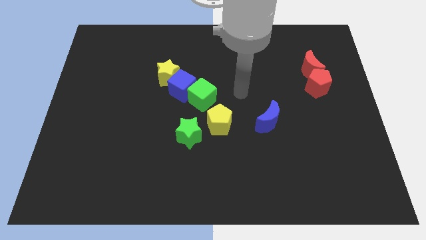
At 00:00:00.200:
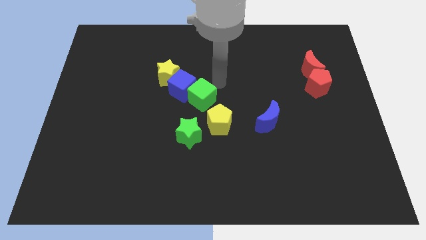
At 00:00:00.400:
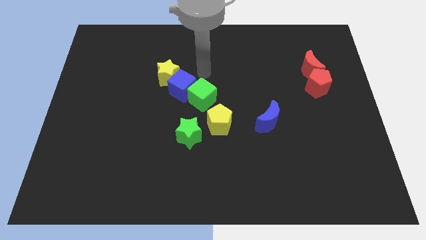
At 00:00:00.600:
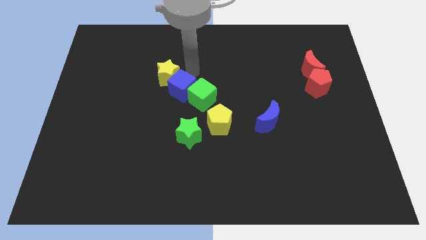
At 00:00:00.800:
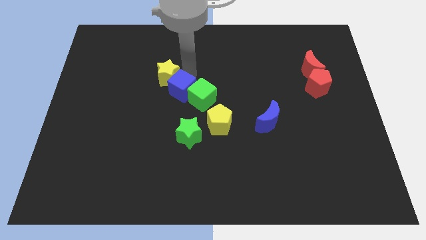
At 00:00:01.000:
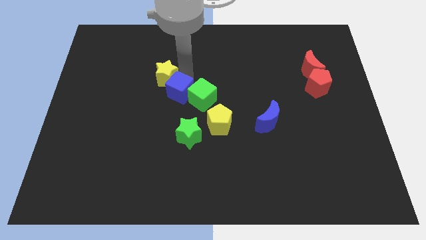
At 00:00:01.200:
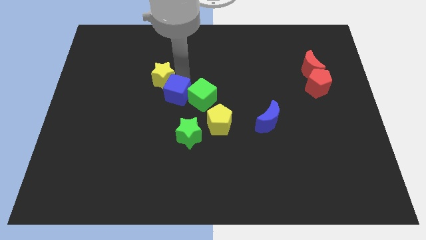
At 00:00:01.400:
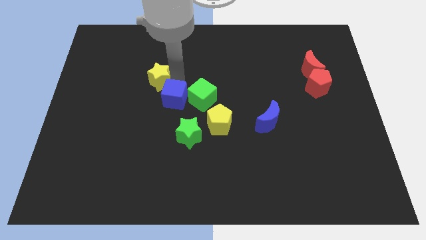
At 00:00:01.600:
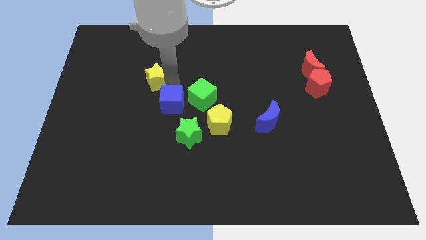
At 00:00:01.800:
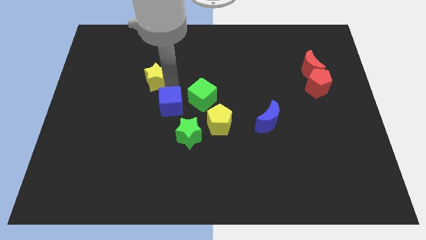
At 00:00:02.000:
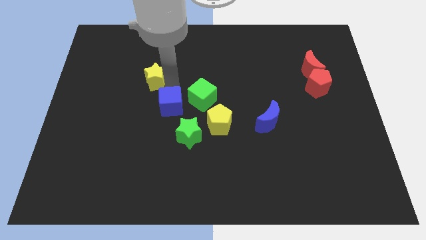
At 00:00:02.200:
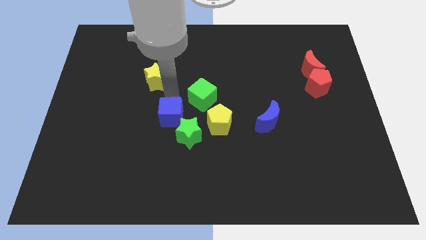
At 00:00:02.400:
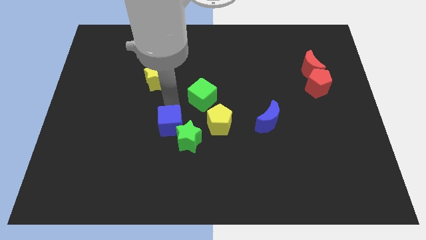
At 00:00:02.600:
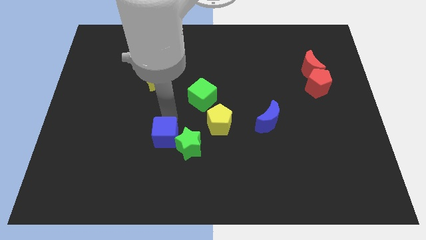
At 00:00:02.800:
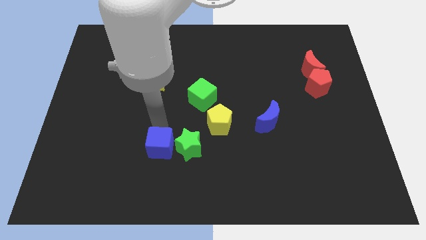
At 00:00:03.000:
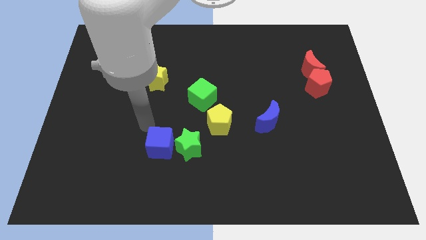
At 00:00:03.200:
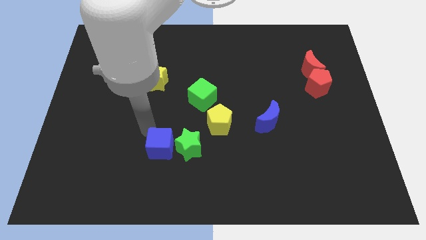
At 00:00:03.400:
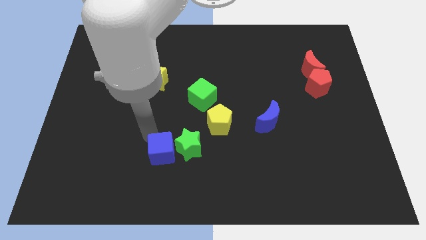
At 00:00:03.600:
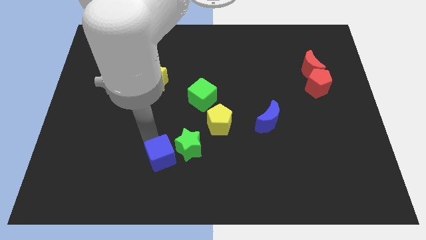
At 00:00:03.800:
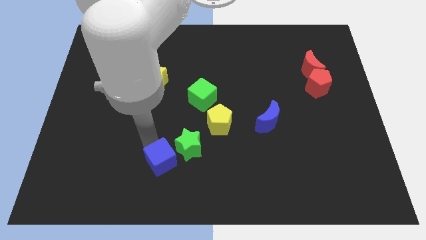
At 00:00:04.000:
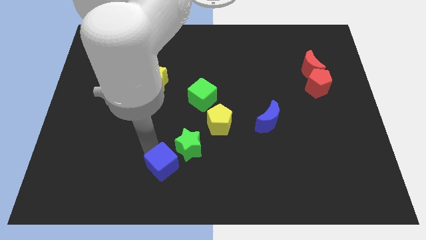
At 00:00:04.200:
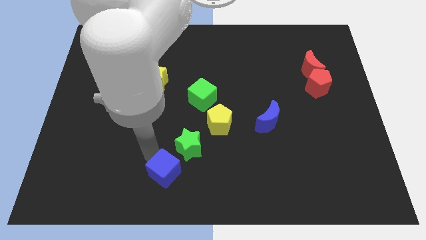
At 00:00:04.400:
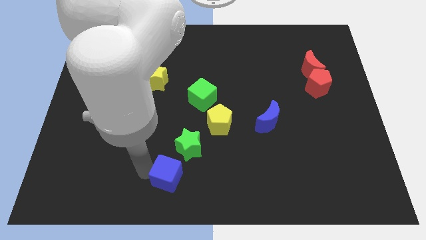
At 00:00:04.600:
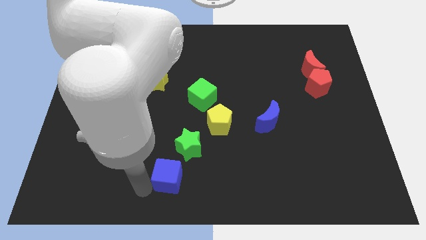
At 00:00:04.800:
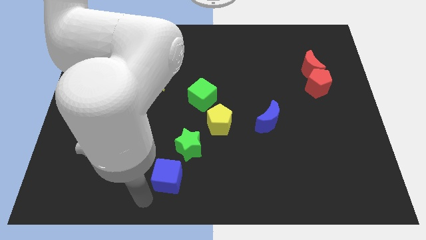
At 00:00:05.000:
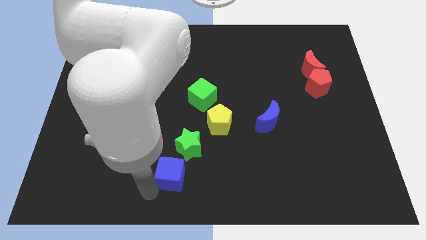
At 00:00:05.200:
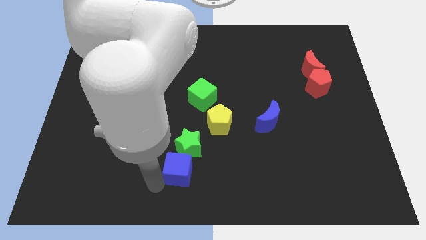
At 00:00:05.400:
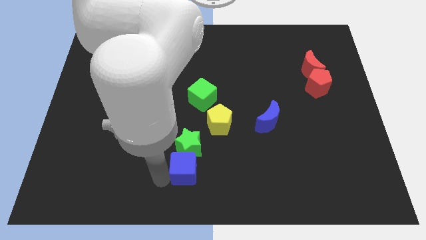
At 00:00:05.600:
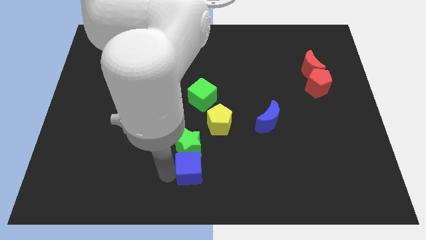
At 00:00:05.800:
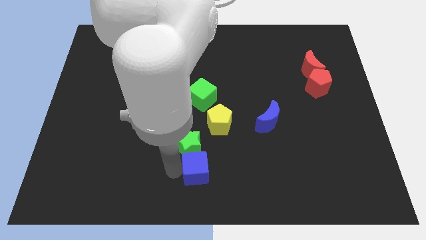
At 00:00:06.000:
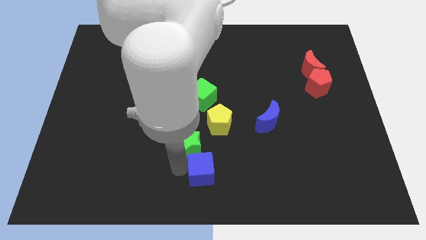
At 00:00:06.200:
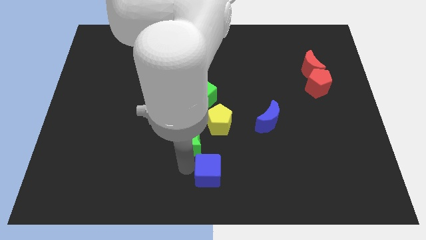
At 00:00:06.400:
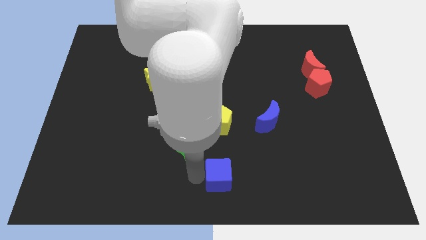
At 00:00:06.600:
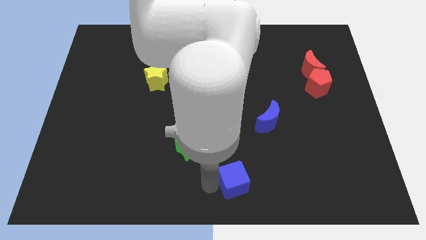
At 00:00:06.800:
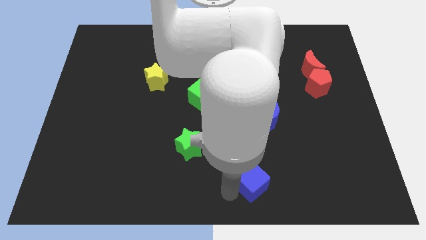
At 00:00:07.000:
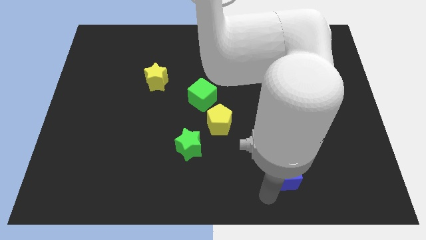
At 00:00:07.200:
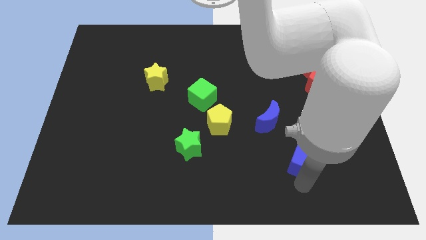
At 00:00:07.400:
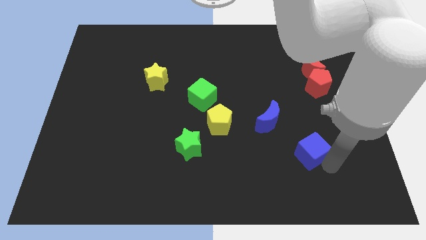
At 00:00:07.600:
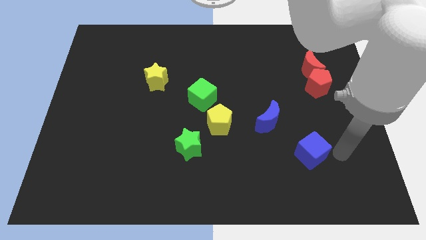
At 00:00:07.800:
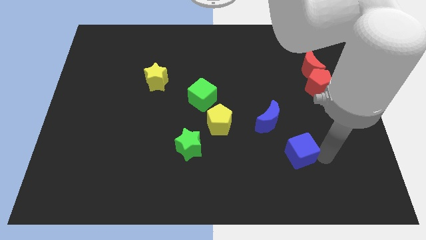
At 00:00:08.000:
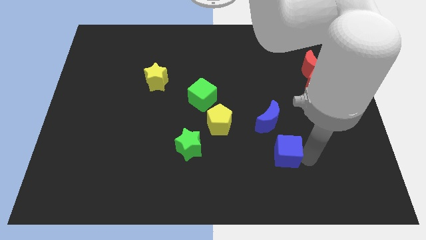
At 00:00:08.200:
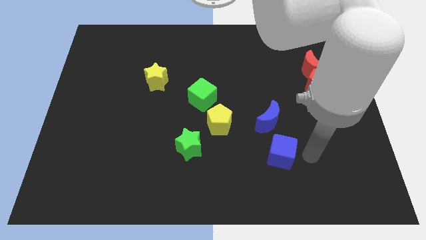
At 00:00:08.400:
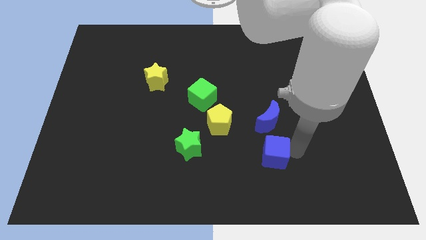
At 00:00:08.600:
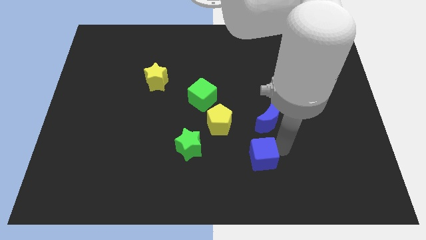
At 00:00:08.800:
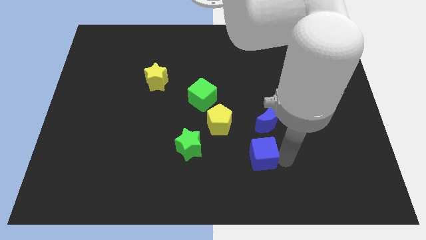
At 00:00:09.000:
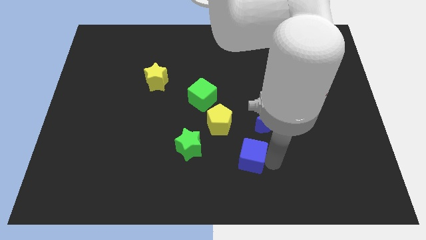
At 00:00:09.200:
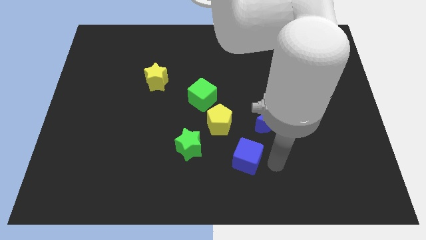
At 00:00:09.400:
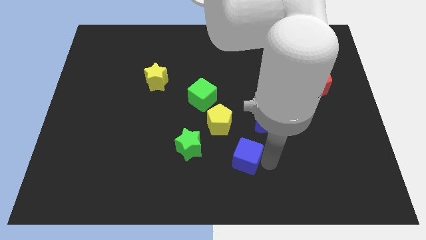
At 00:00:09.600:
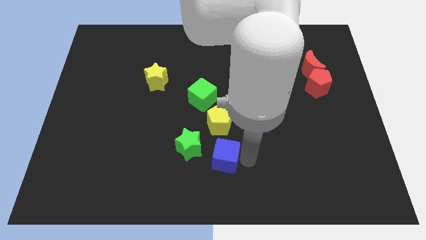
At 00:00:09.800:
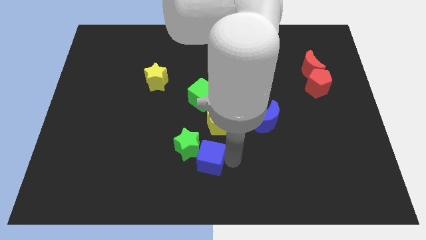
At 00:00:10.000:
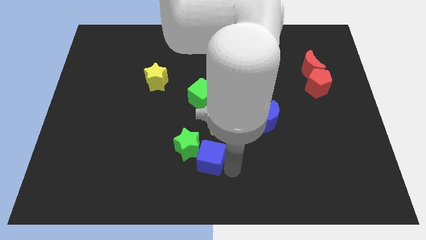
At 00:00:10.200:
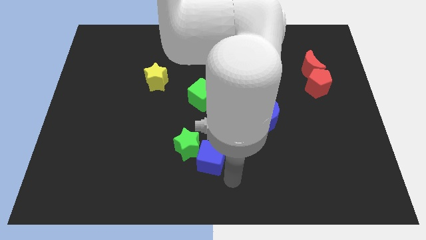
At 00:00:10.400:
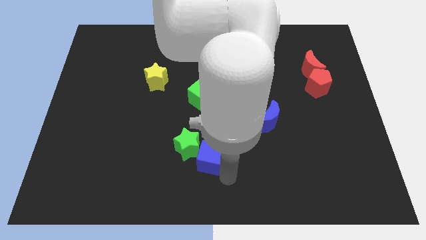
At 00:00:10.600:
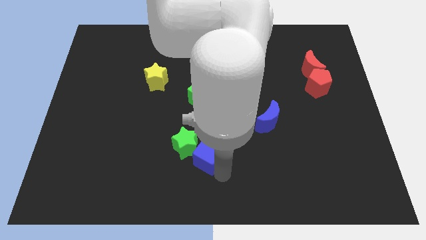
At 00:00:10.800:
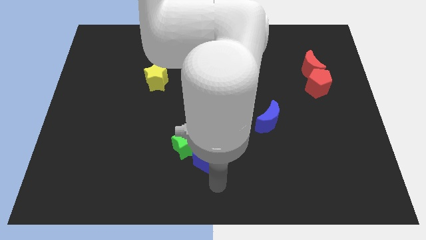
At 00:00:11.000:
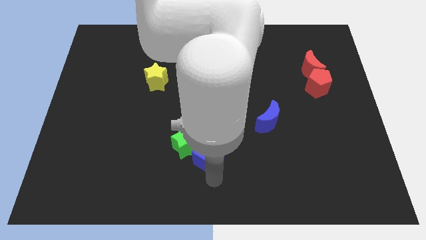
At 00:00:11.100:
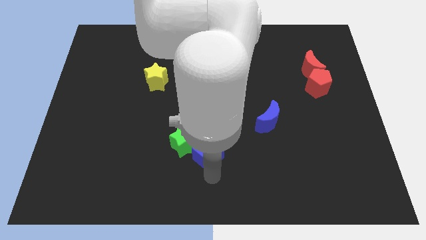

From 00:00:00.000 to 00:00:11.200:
push the blue cube below the green cube

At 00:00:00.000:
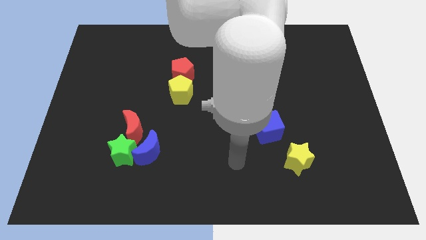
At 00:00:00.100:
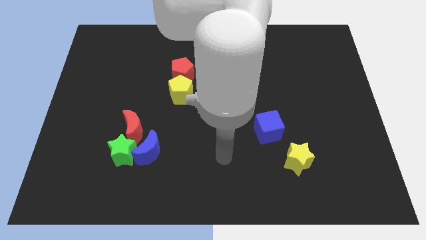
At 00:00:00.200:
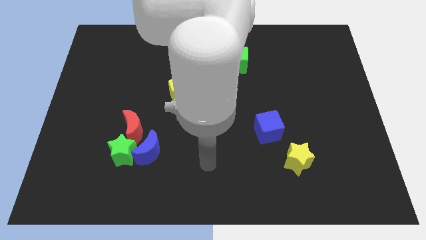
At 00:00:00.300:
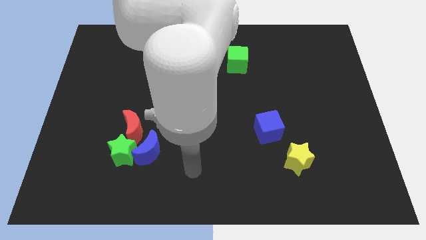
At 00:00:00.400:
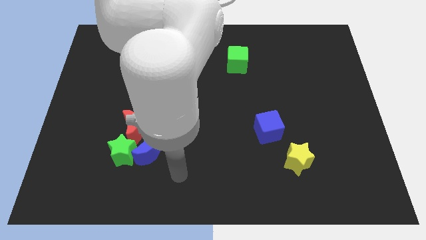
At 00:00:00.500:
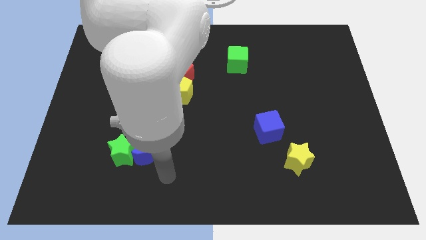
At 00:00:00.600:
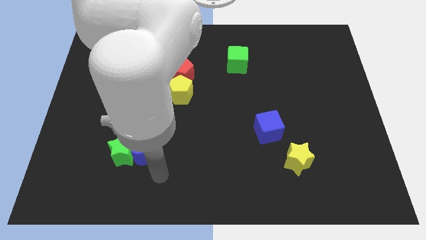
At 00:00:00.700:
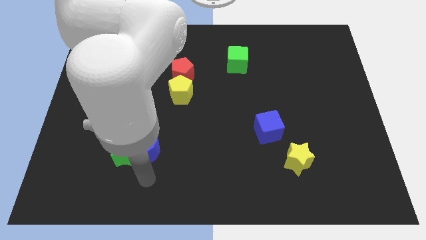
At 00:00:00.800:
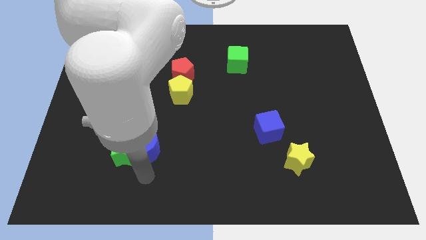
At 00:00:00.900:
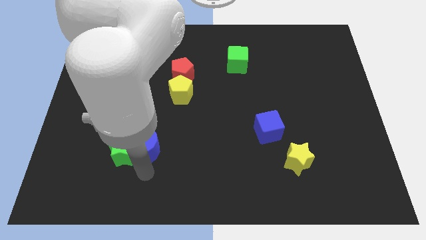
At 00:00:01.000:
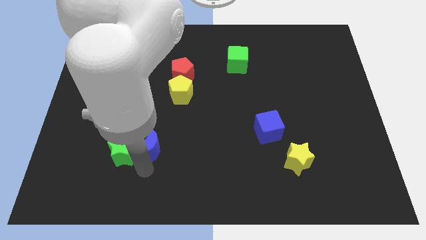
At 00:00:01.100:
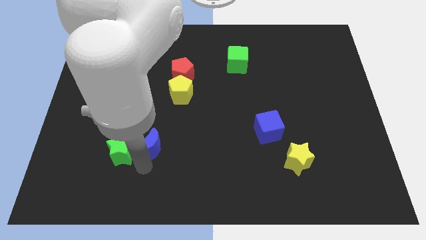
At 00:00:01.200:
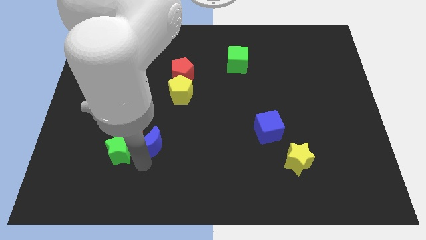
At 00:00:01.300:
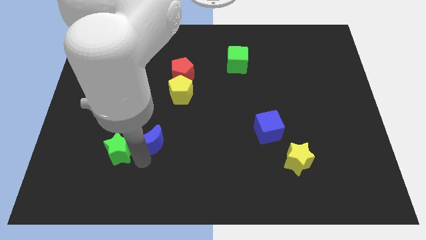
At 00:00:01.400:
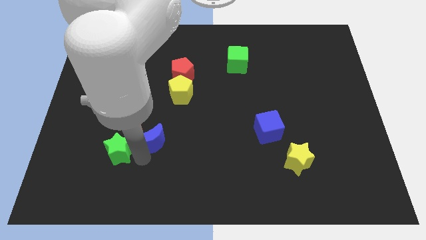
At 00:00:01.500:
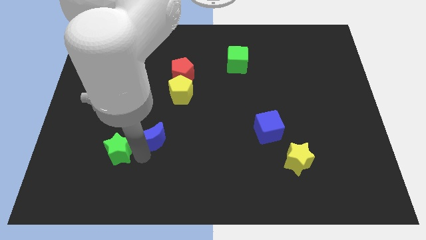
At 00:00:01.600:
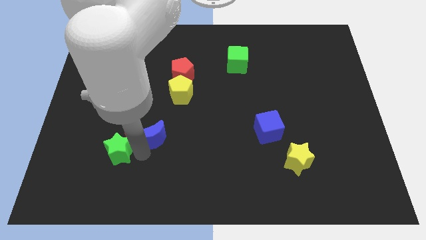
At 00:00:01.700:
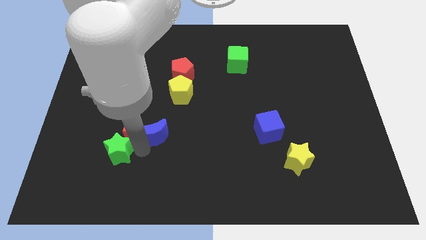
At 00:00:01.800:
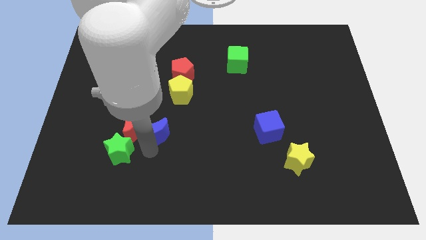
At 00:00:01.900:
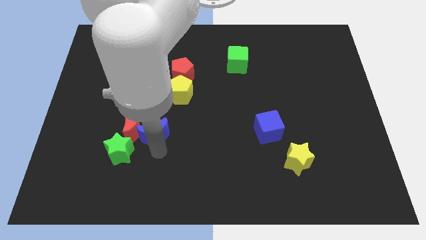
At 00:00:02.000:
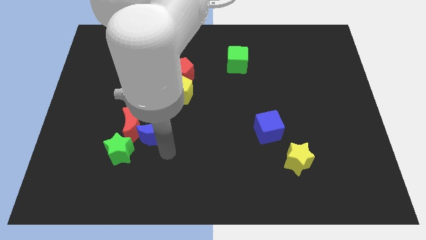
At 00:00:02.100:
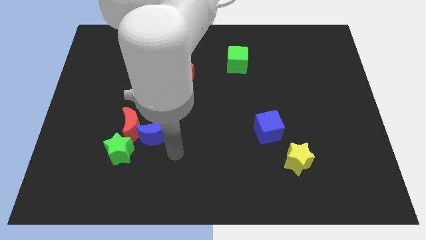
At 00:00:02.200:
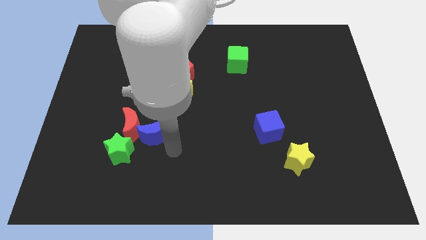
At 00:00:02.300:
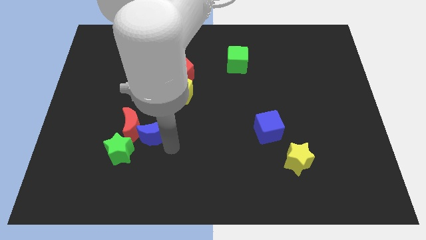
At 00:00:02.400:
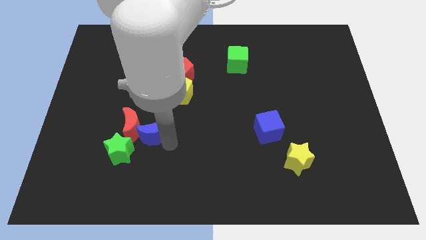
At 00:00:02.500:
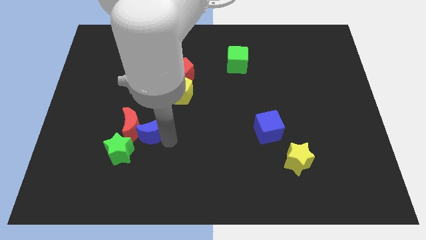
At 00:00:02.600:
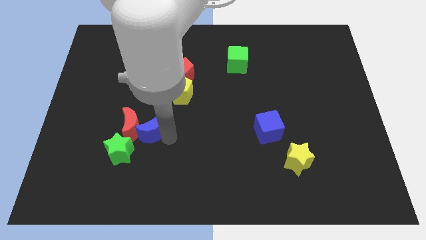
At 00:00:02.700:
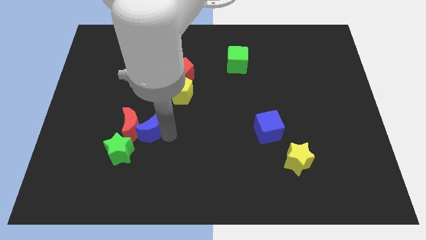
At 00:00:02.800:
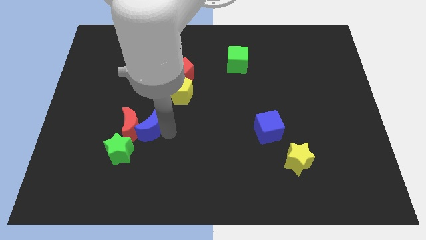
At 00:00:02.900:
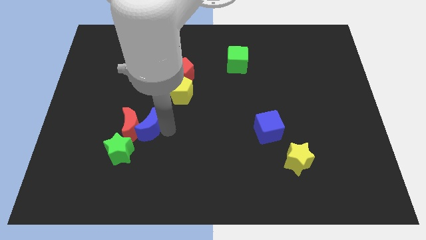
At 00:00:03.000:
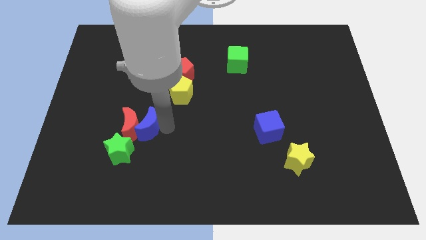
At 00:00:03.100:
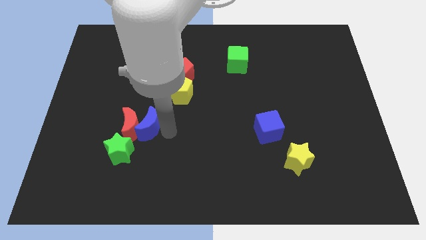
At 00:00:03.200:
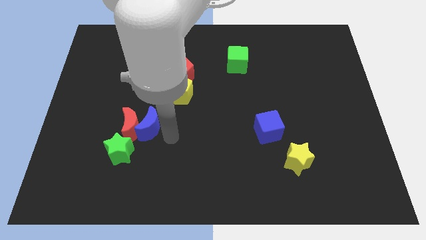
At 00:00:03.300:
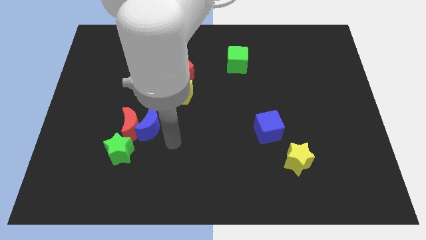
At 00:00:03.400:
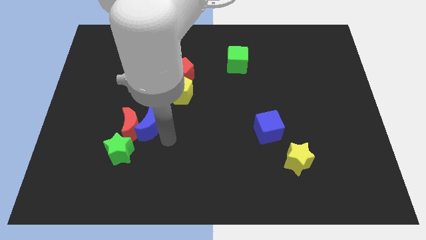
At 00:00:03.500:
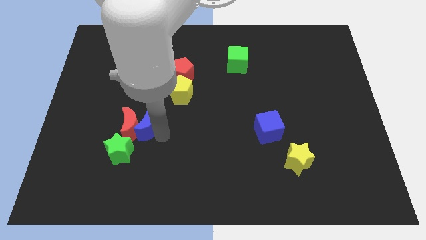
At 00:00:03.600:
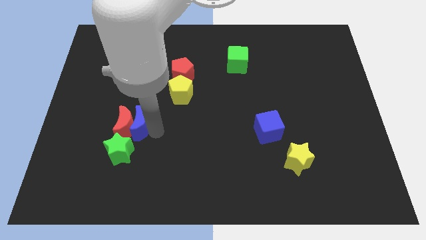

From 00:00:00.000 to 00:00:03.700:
slide the blue moon above the green star
